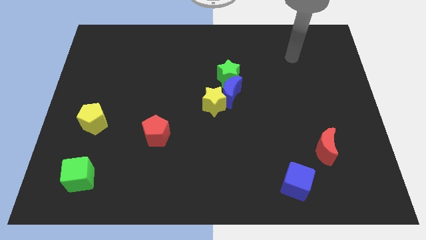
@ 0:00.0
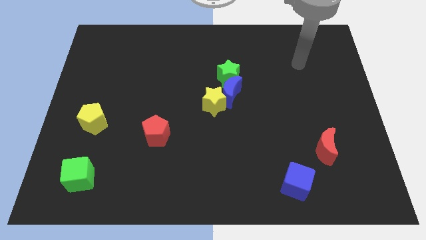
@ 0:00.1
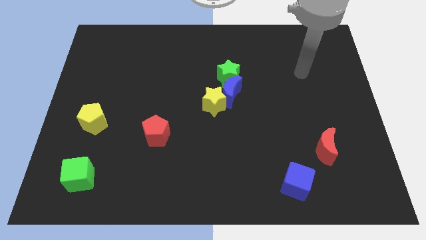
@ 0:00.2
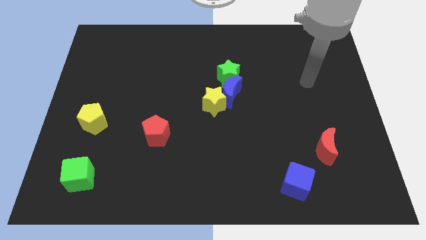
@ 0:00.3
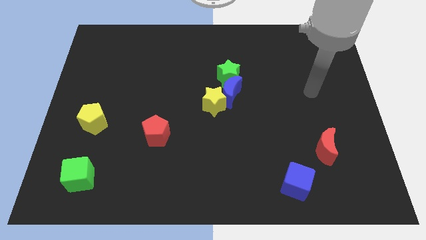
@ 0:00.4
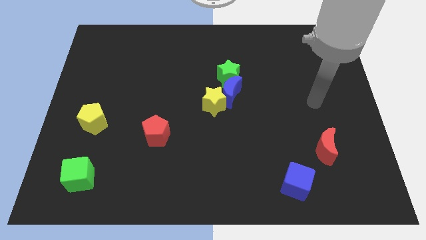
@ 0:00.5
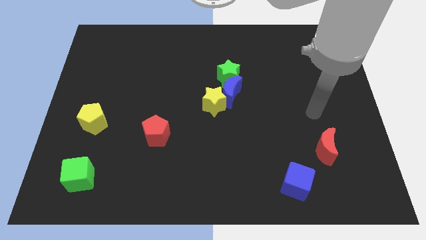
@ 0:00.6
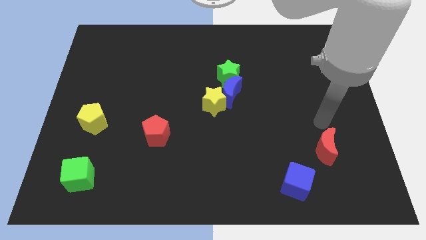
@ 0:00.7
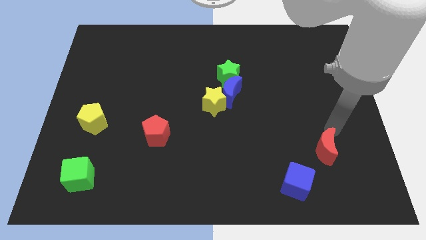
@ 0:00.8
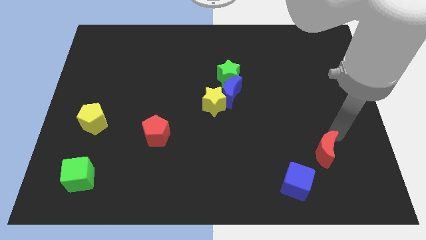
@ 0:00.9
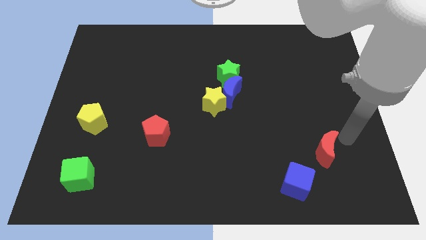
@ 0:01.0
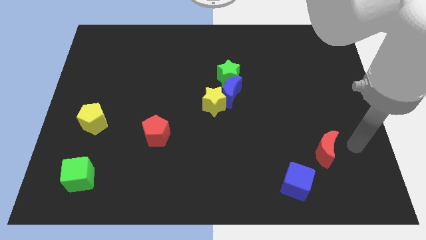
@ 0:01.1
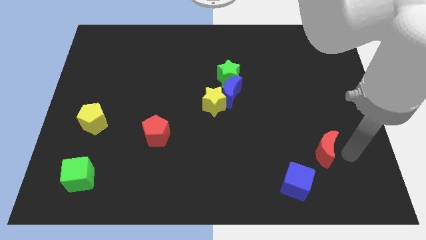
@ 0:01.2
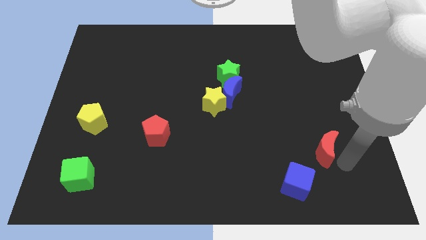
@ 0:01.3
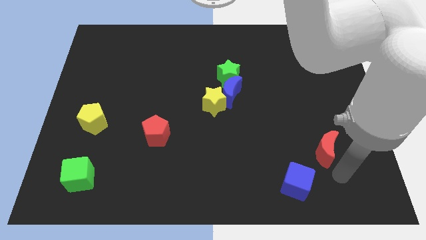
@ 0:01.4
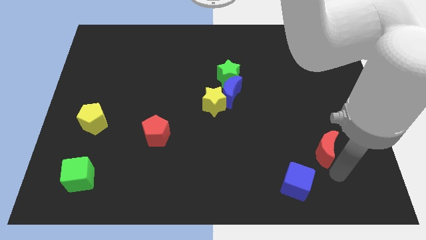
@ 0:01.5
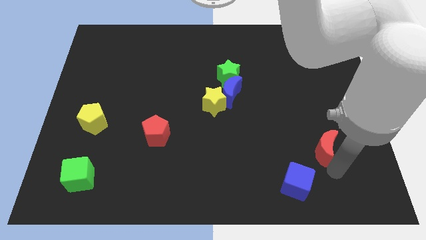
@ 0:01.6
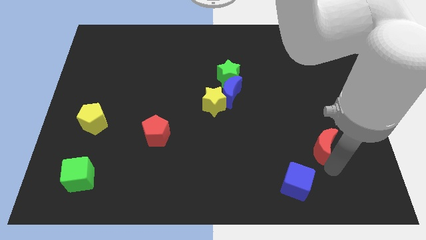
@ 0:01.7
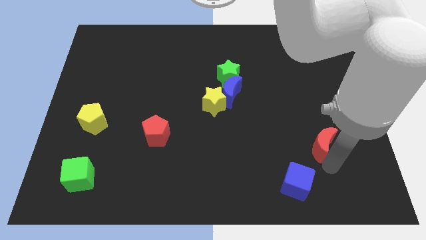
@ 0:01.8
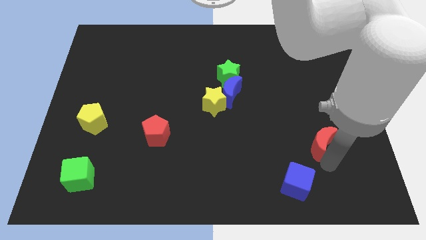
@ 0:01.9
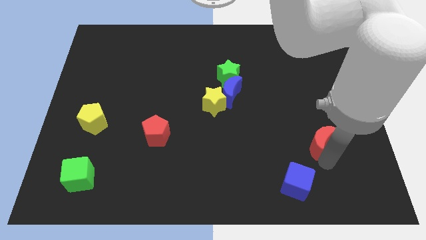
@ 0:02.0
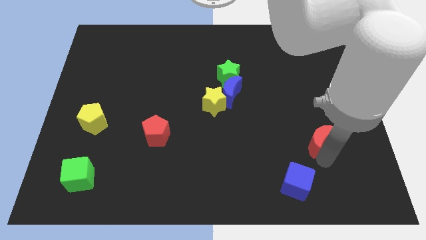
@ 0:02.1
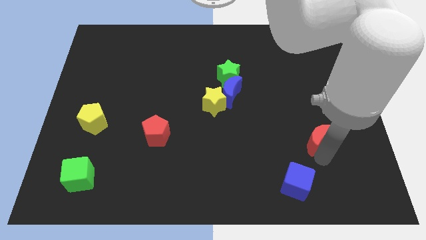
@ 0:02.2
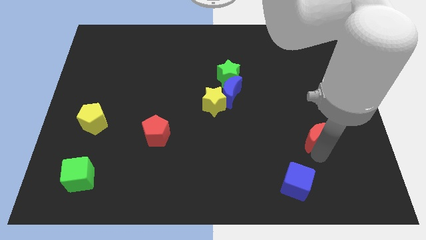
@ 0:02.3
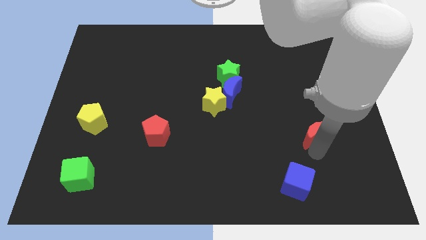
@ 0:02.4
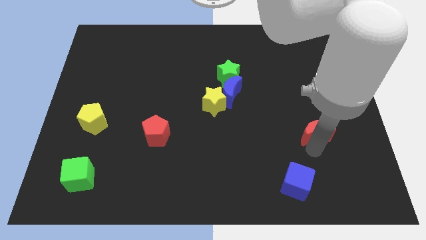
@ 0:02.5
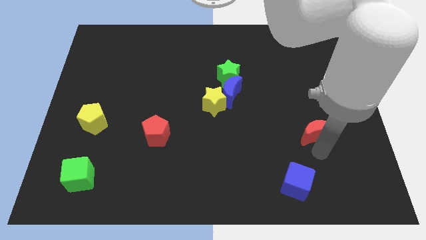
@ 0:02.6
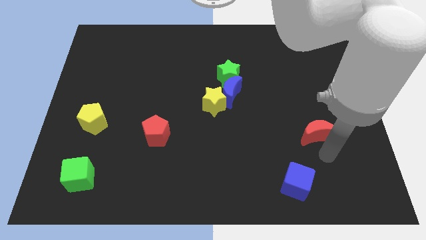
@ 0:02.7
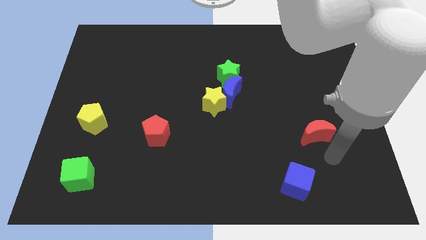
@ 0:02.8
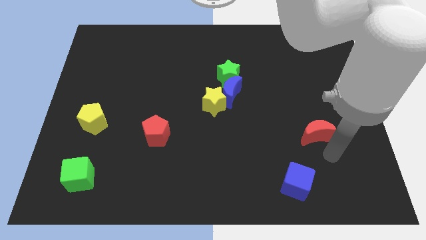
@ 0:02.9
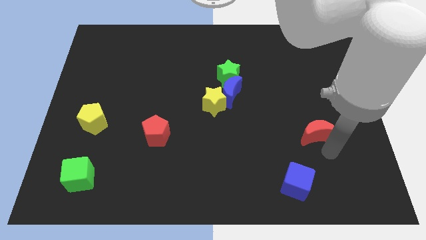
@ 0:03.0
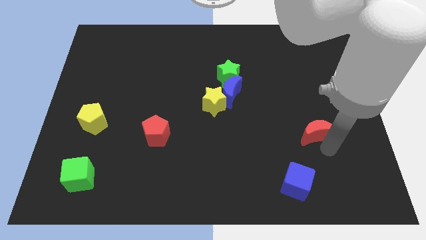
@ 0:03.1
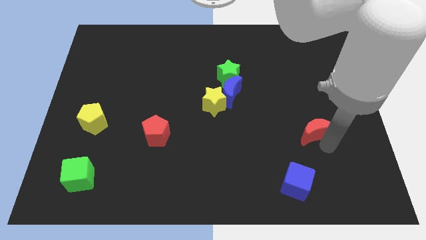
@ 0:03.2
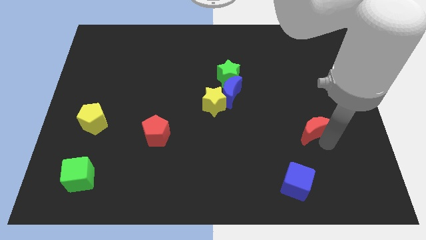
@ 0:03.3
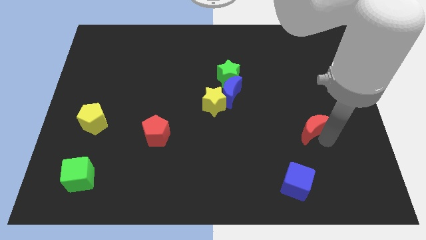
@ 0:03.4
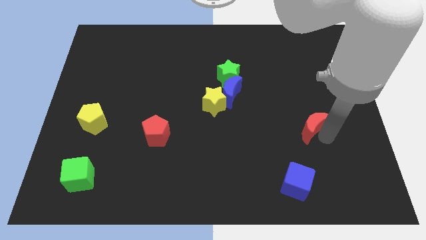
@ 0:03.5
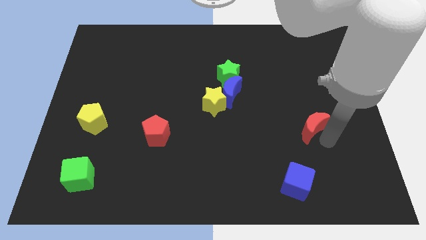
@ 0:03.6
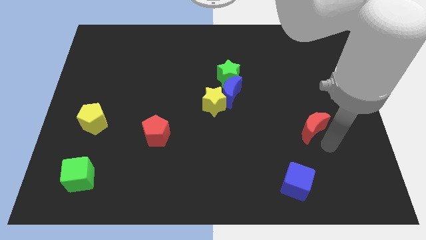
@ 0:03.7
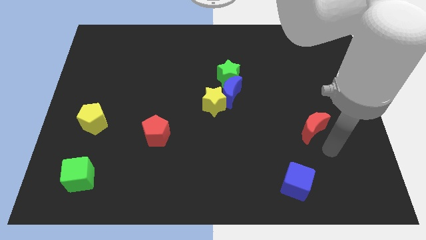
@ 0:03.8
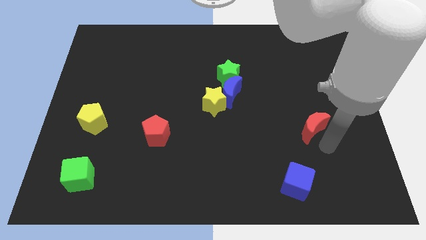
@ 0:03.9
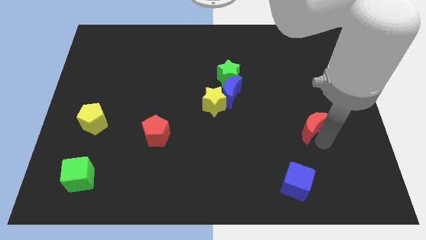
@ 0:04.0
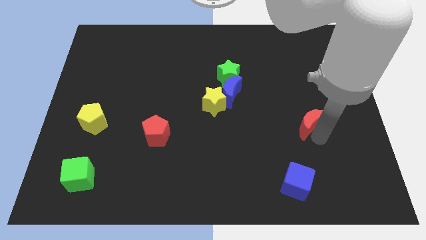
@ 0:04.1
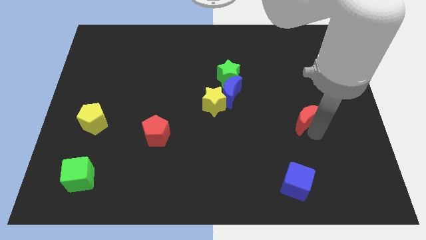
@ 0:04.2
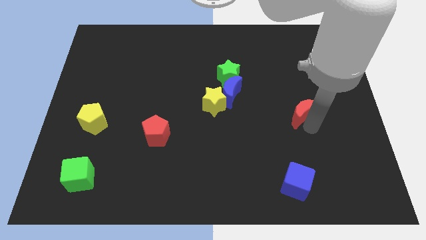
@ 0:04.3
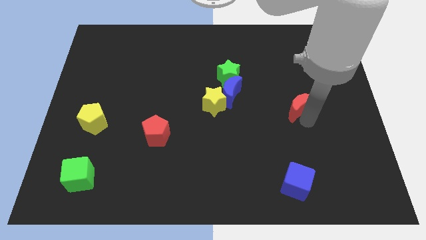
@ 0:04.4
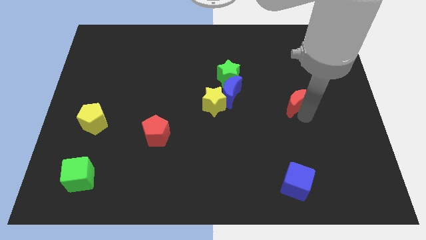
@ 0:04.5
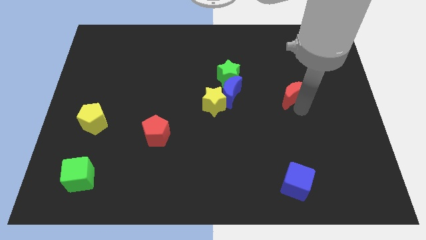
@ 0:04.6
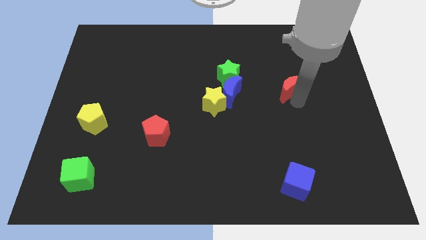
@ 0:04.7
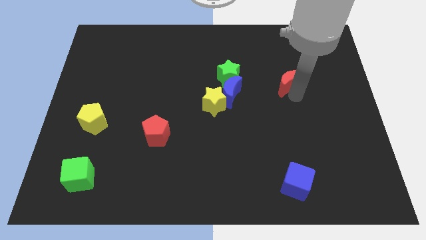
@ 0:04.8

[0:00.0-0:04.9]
move the red moon to the right side of the green star

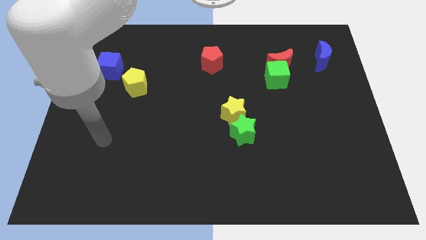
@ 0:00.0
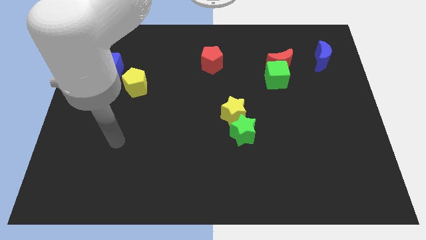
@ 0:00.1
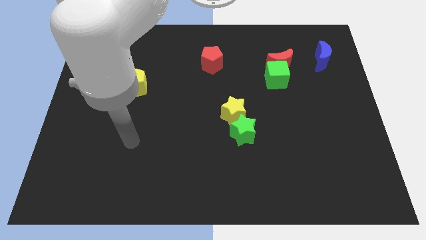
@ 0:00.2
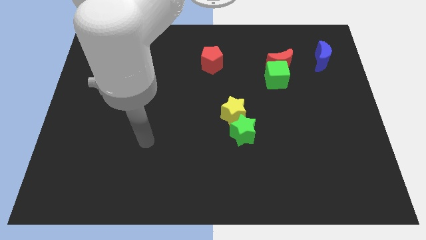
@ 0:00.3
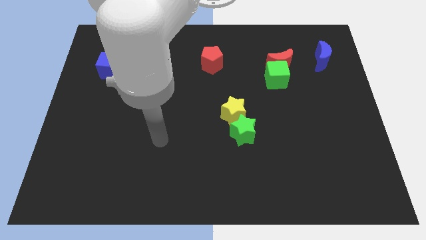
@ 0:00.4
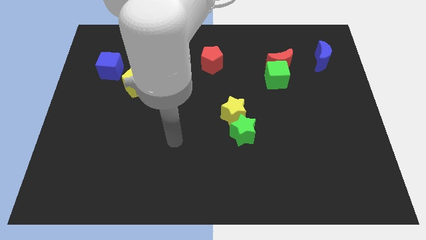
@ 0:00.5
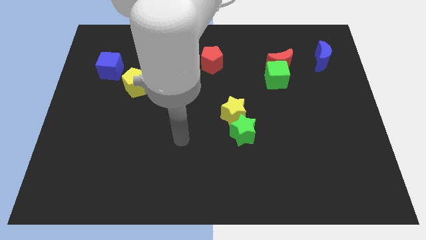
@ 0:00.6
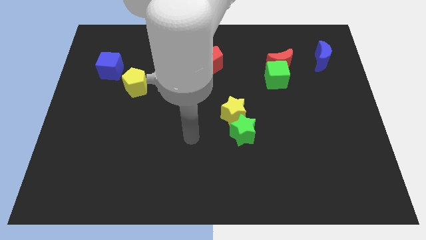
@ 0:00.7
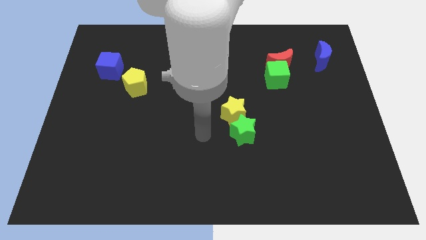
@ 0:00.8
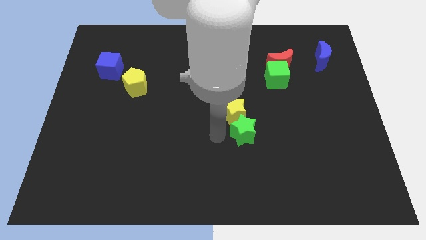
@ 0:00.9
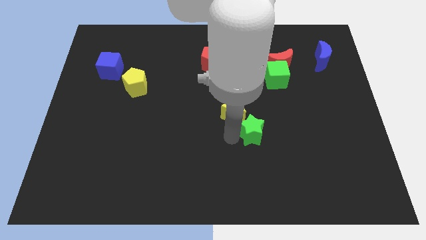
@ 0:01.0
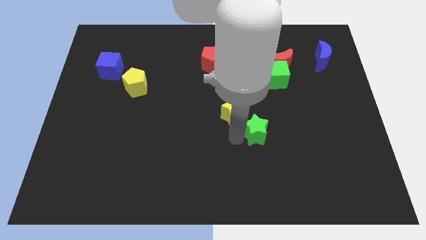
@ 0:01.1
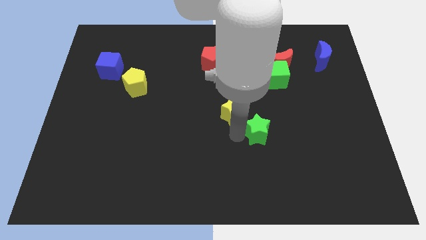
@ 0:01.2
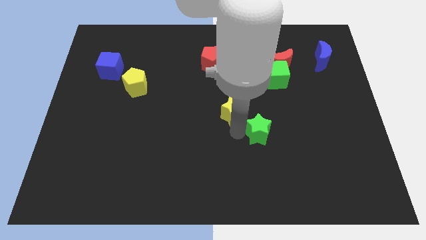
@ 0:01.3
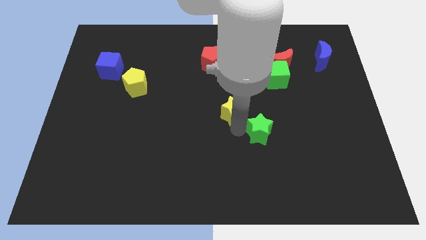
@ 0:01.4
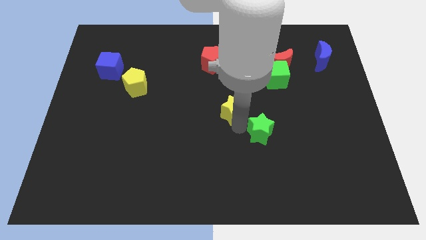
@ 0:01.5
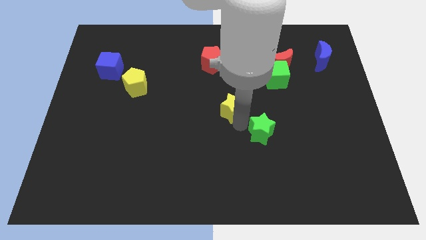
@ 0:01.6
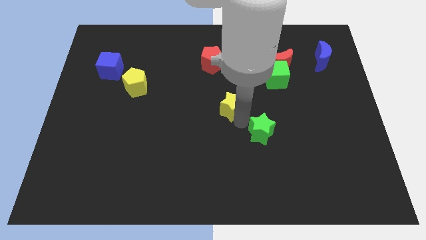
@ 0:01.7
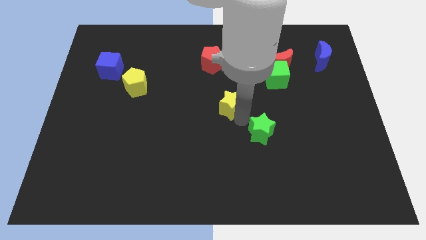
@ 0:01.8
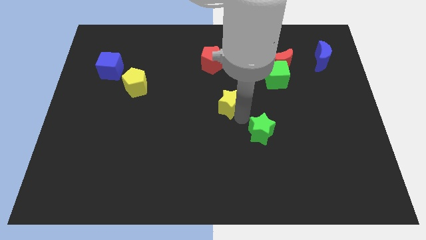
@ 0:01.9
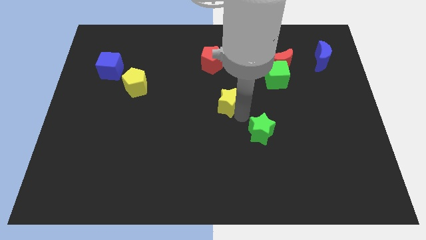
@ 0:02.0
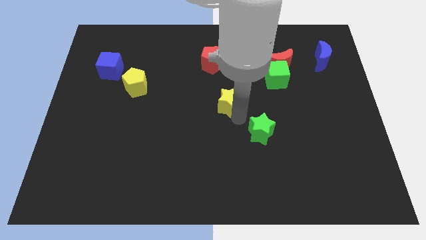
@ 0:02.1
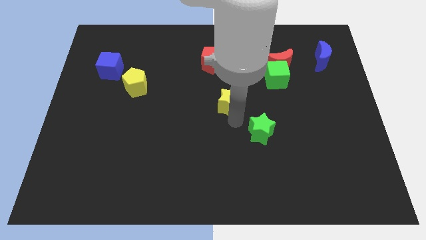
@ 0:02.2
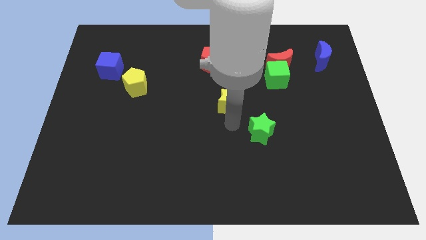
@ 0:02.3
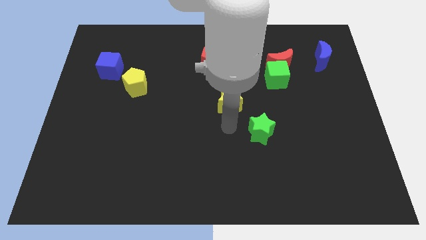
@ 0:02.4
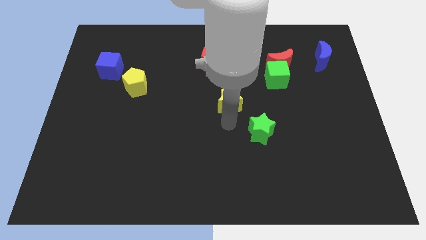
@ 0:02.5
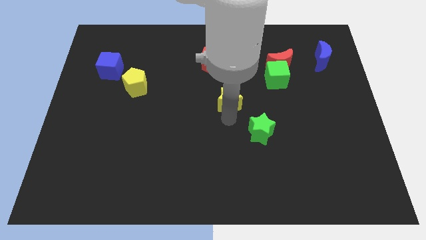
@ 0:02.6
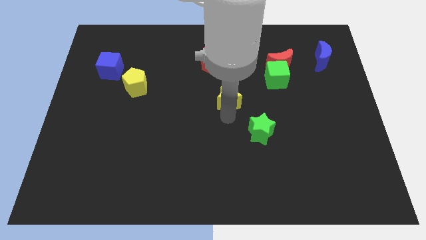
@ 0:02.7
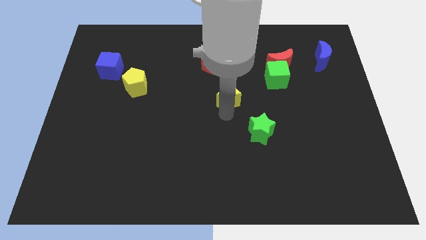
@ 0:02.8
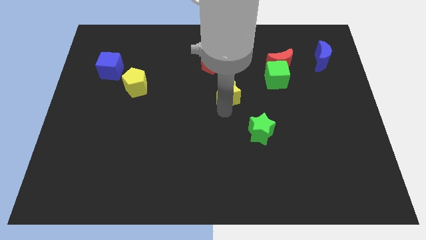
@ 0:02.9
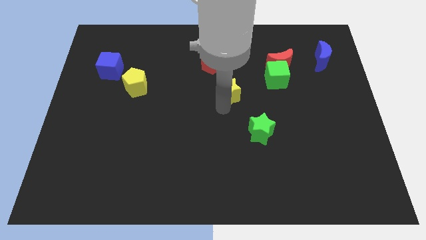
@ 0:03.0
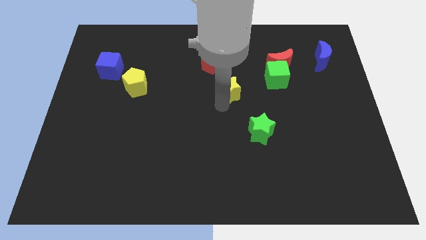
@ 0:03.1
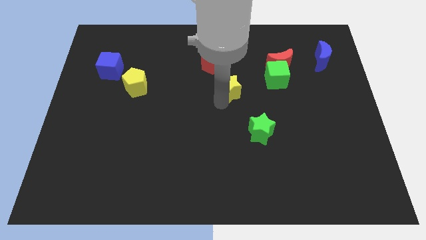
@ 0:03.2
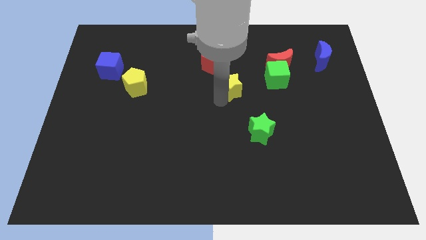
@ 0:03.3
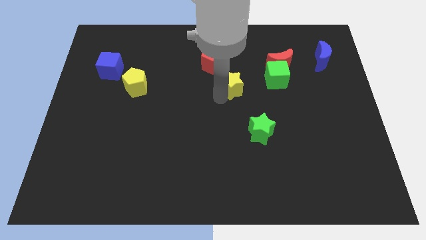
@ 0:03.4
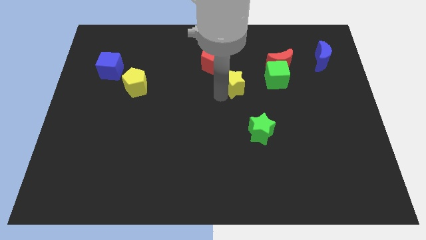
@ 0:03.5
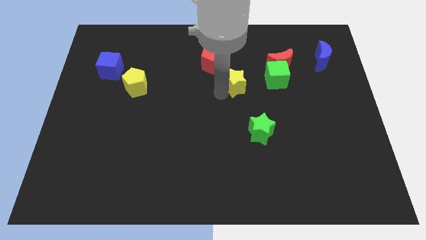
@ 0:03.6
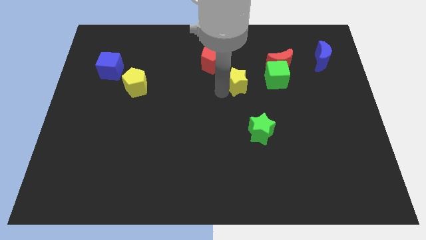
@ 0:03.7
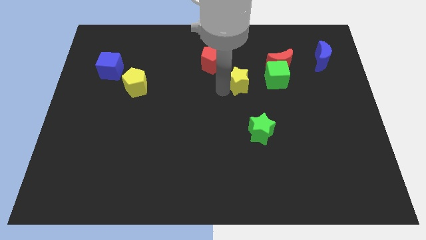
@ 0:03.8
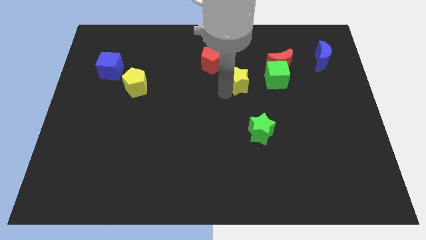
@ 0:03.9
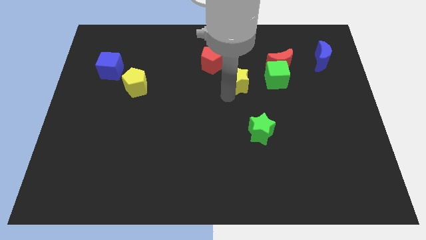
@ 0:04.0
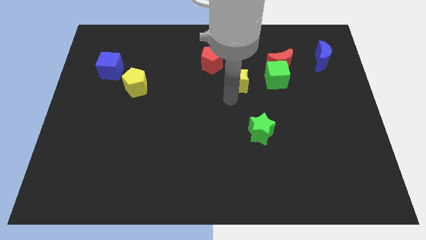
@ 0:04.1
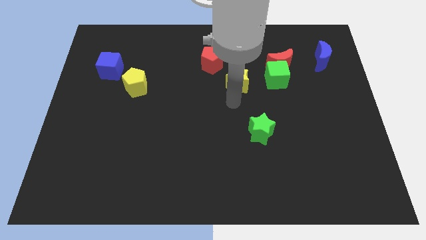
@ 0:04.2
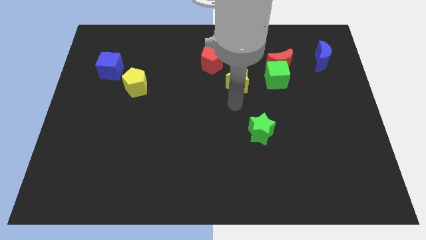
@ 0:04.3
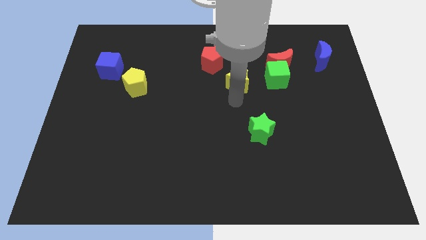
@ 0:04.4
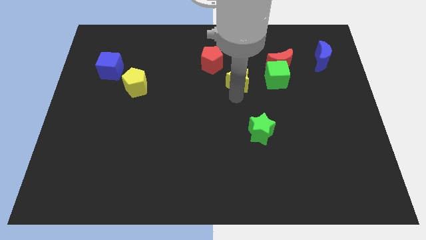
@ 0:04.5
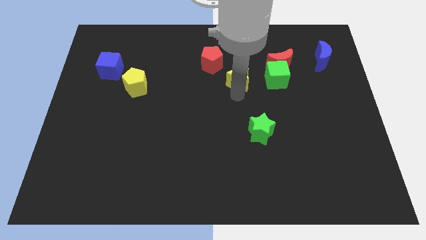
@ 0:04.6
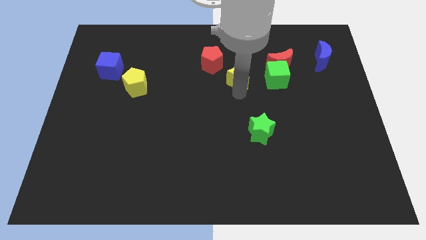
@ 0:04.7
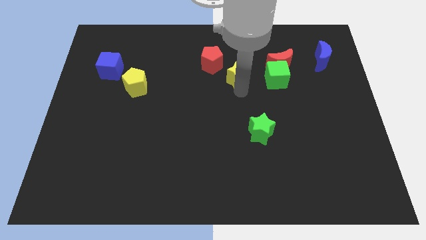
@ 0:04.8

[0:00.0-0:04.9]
move the yellow star left of the red moon
